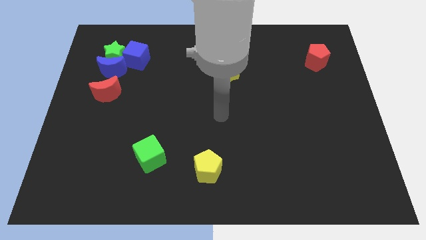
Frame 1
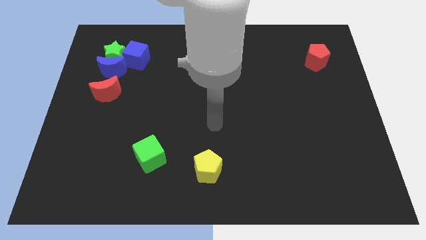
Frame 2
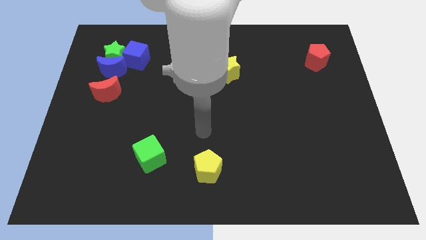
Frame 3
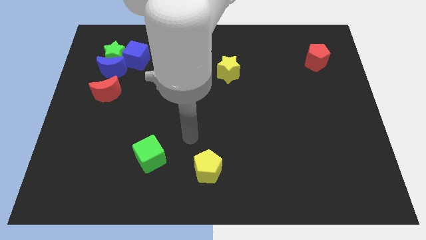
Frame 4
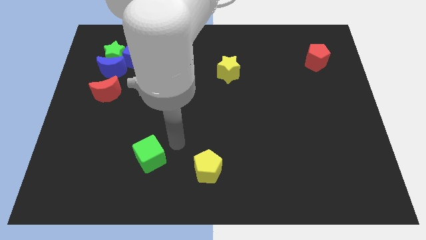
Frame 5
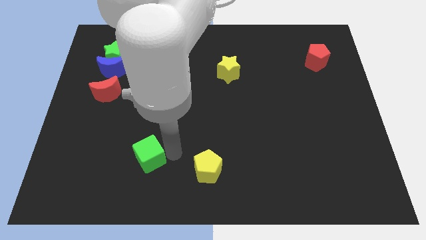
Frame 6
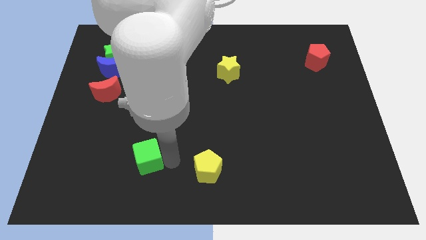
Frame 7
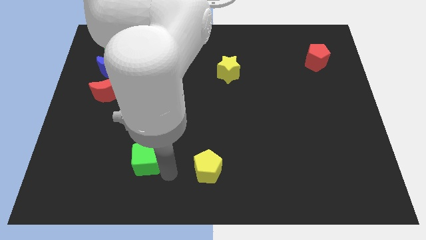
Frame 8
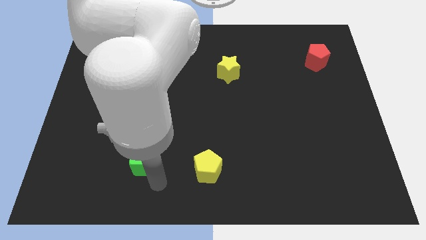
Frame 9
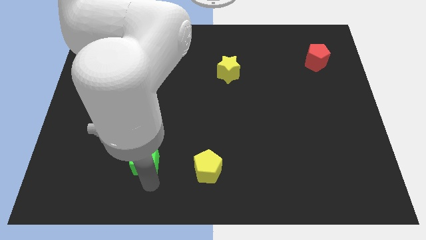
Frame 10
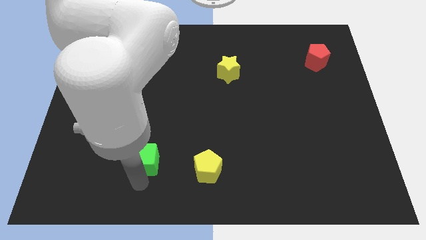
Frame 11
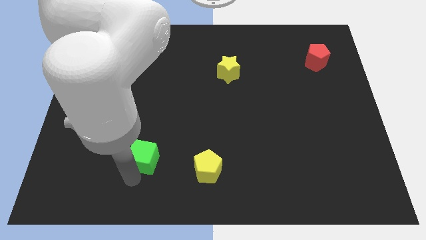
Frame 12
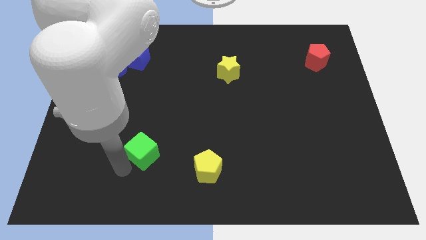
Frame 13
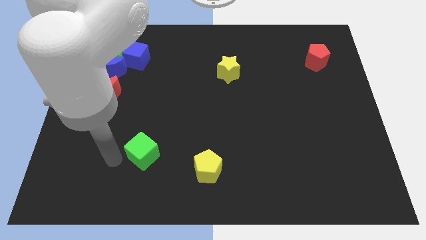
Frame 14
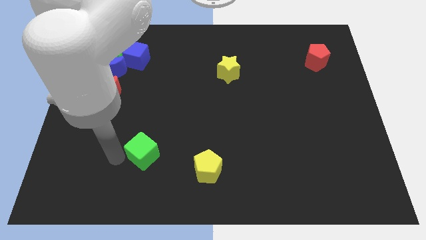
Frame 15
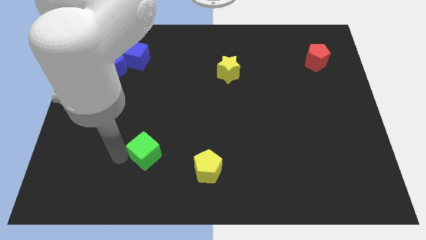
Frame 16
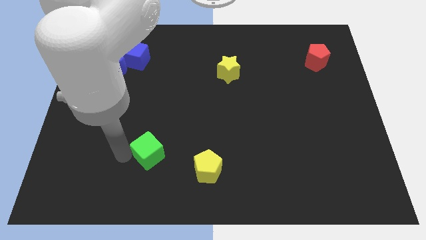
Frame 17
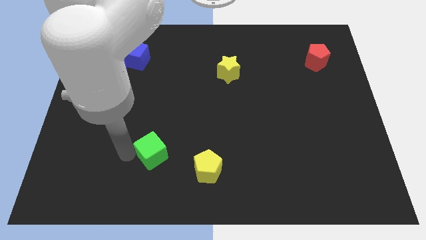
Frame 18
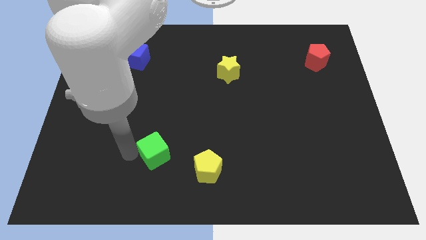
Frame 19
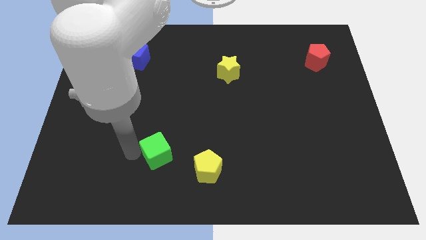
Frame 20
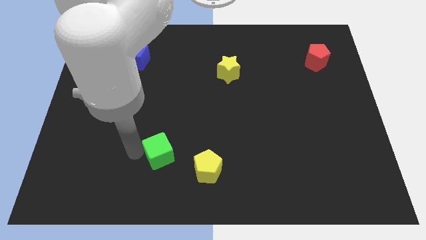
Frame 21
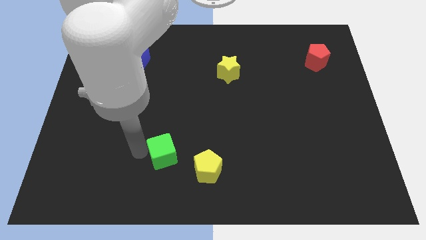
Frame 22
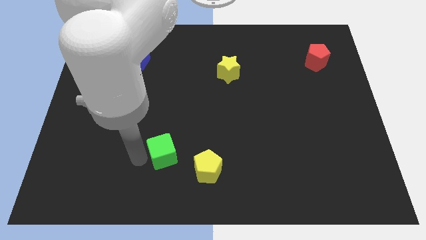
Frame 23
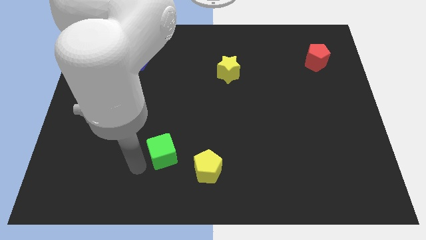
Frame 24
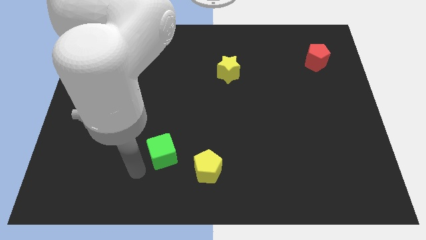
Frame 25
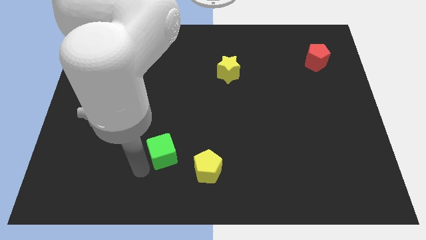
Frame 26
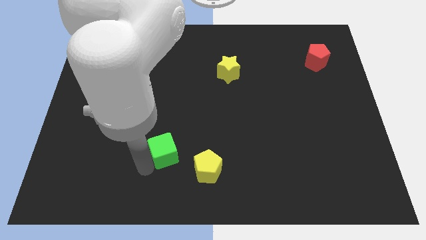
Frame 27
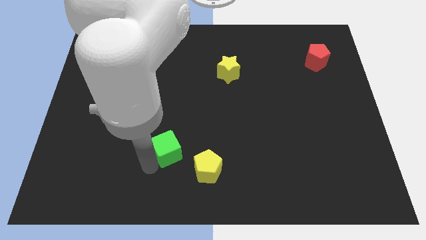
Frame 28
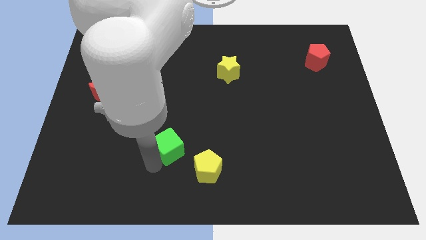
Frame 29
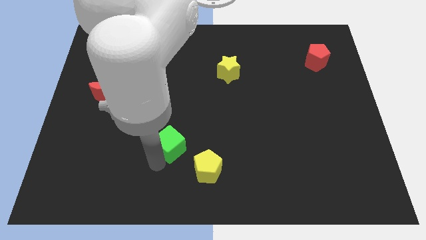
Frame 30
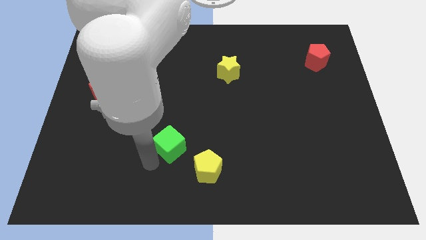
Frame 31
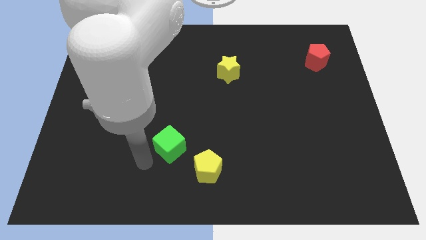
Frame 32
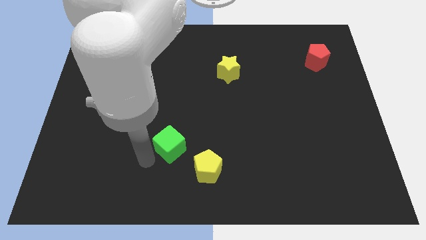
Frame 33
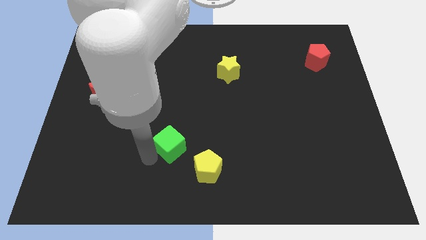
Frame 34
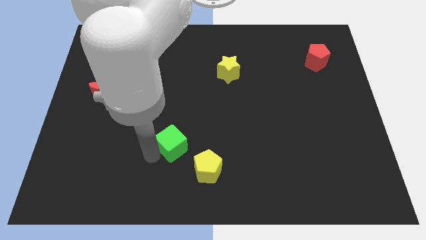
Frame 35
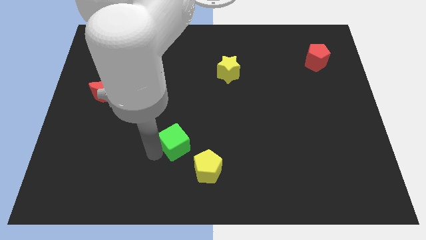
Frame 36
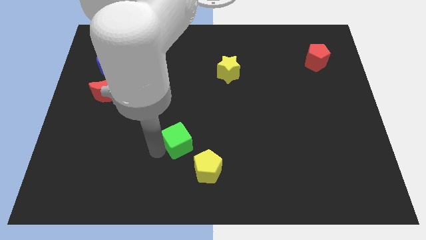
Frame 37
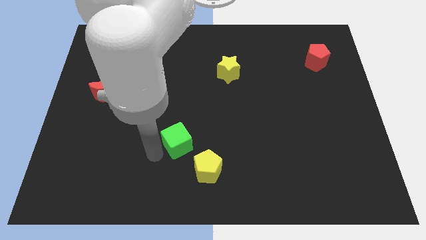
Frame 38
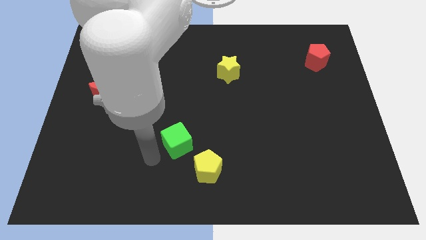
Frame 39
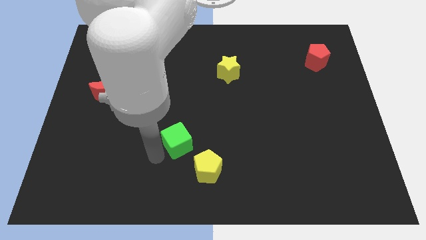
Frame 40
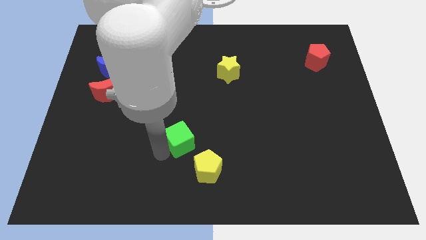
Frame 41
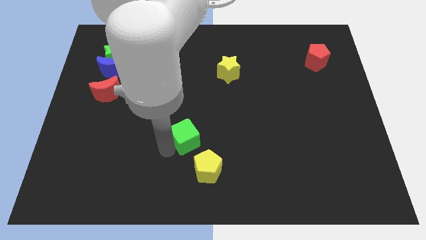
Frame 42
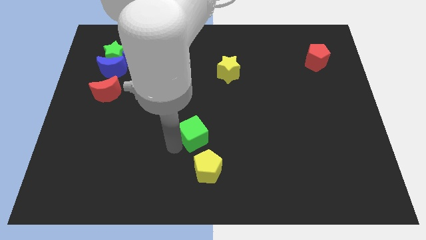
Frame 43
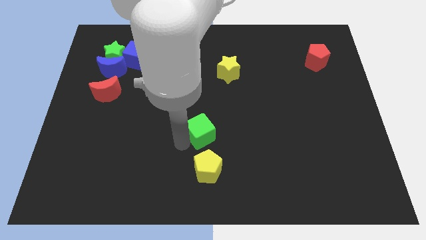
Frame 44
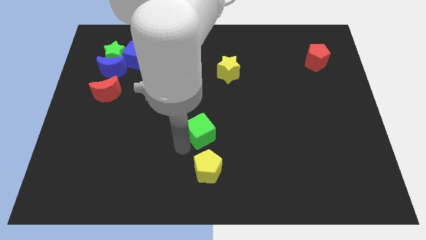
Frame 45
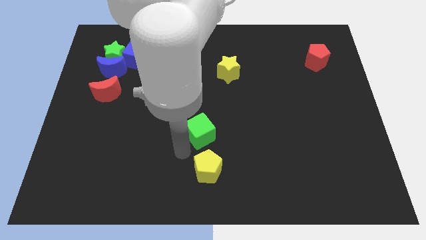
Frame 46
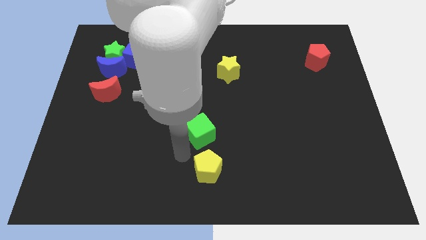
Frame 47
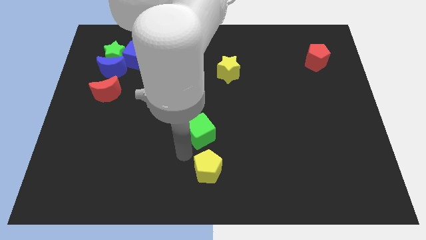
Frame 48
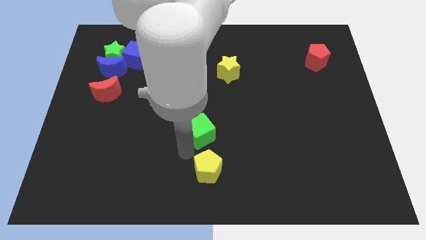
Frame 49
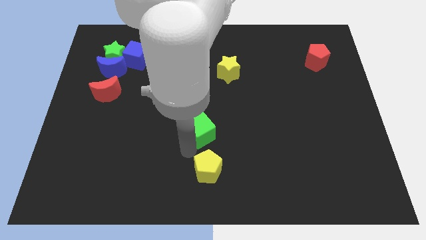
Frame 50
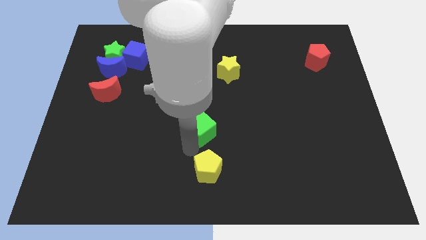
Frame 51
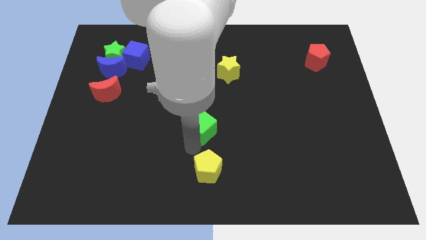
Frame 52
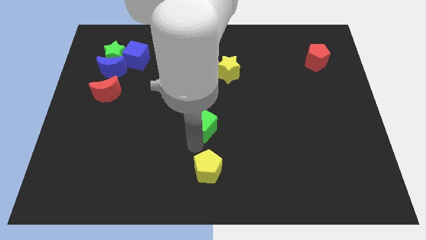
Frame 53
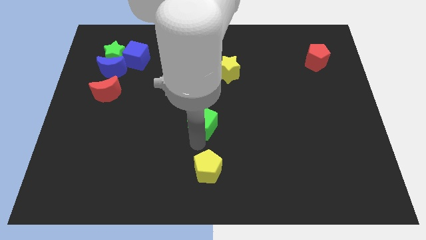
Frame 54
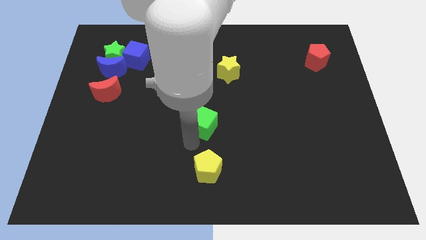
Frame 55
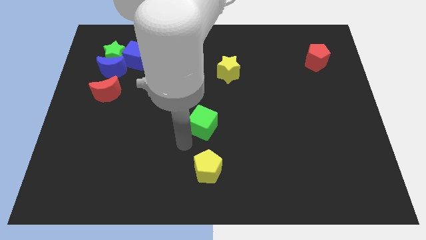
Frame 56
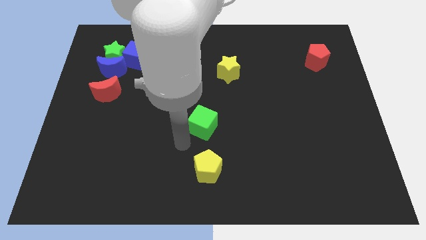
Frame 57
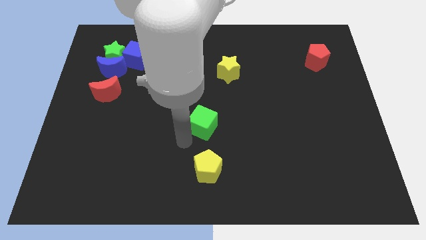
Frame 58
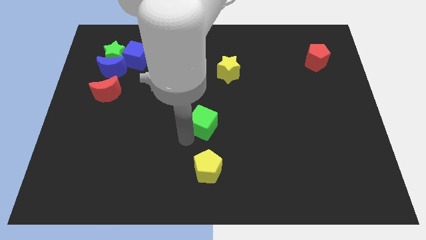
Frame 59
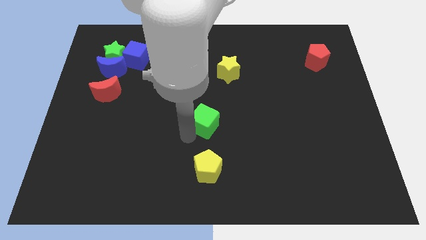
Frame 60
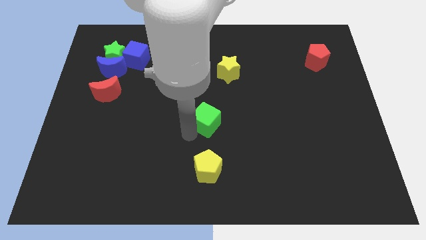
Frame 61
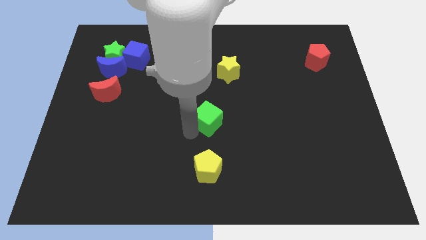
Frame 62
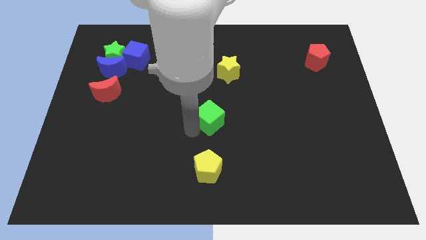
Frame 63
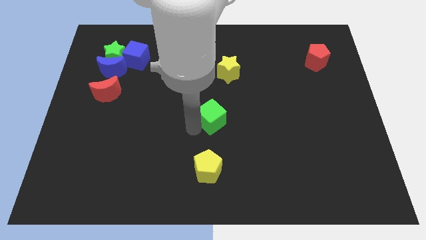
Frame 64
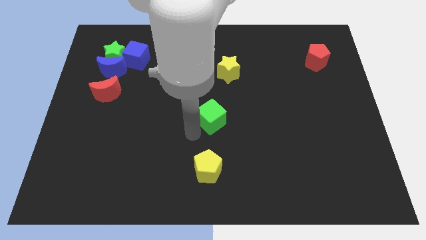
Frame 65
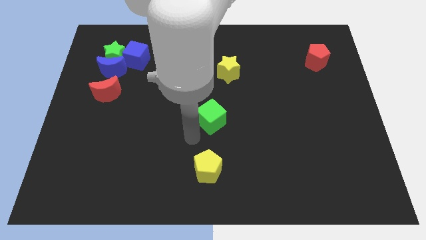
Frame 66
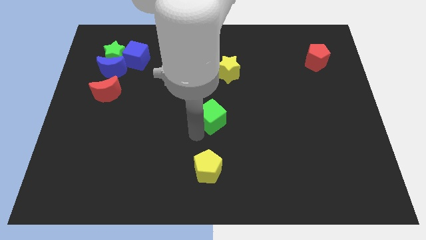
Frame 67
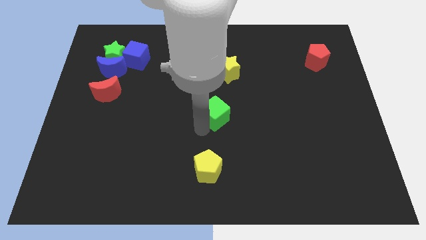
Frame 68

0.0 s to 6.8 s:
push the green cube below the yellow star

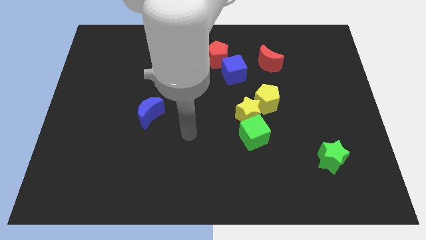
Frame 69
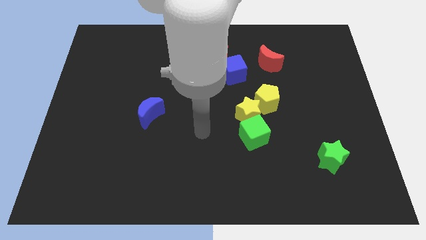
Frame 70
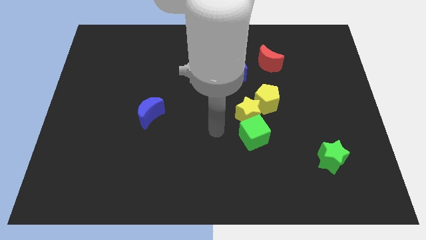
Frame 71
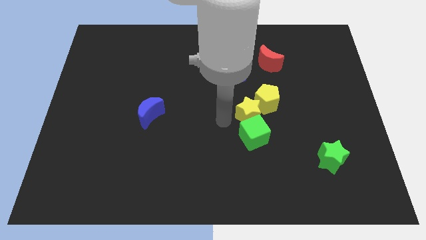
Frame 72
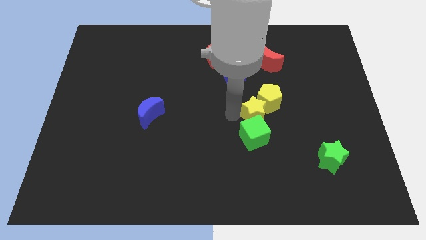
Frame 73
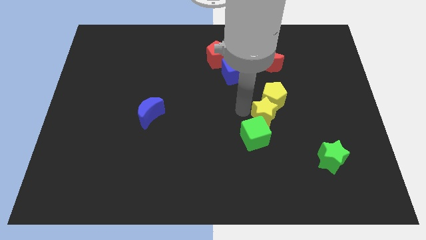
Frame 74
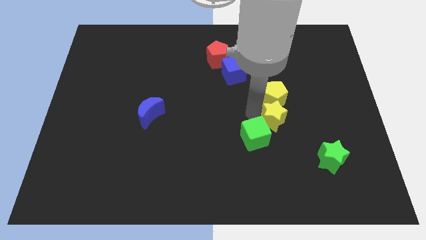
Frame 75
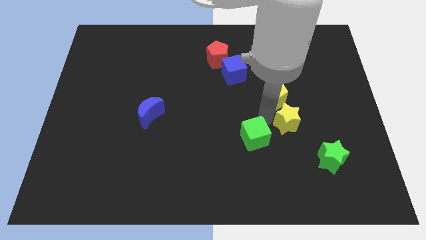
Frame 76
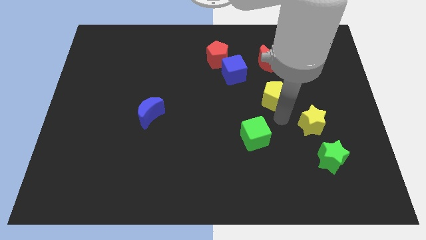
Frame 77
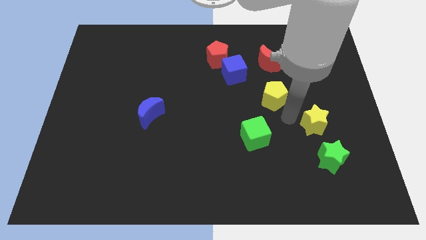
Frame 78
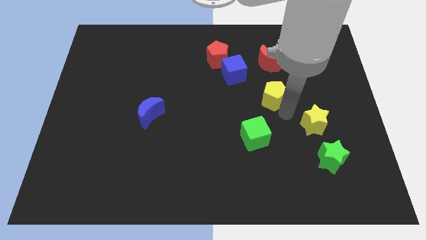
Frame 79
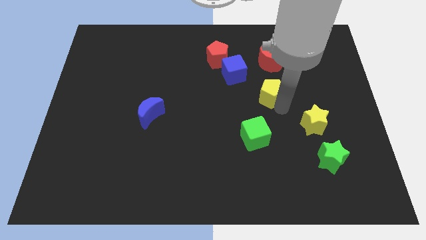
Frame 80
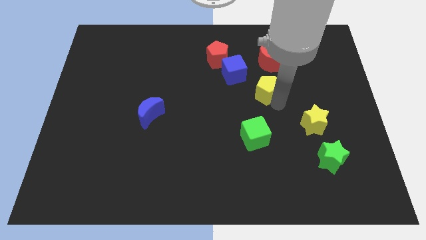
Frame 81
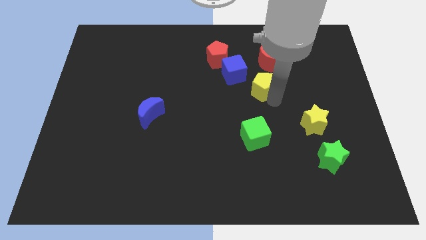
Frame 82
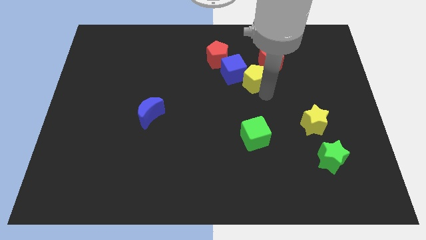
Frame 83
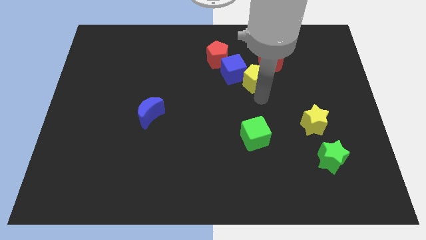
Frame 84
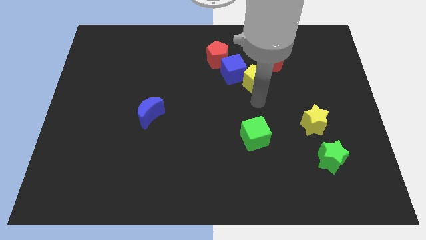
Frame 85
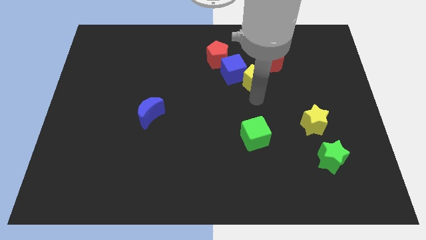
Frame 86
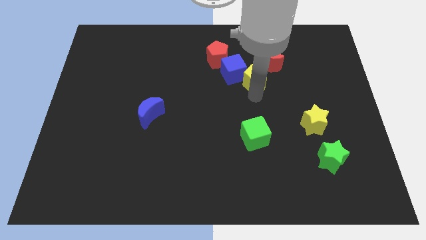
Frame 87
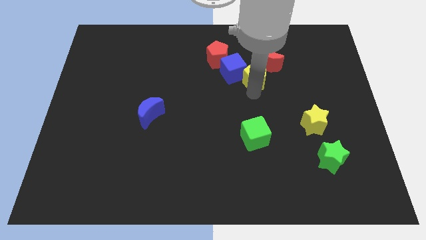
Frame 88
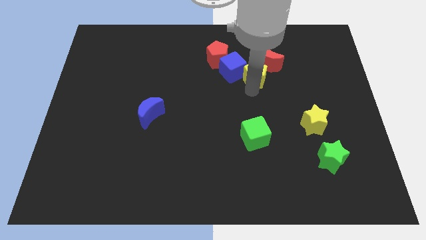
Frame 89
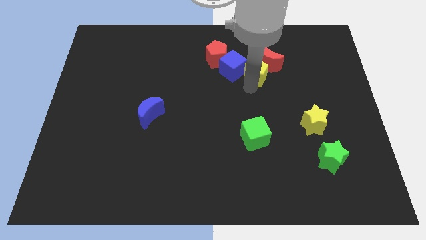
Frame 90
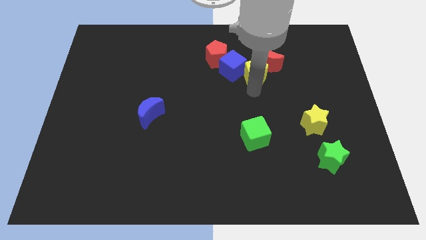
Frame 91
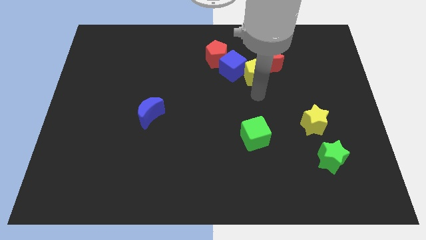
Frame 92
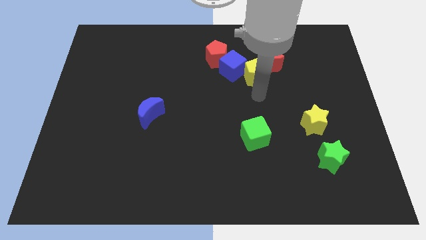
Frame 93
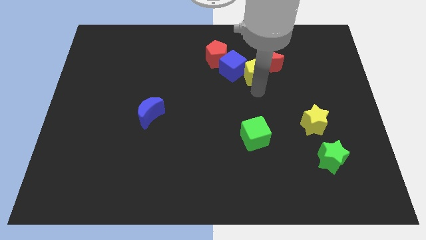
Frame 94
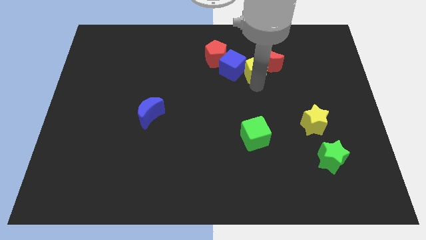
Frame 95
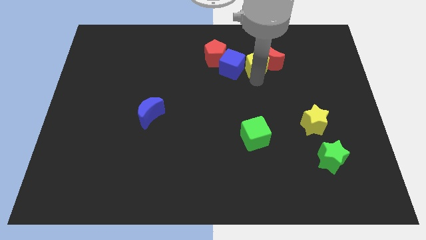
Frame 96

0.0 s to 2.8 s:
put the yellow pentagon diagonally up and to the right of the blue cube
